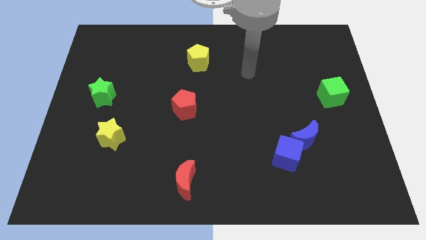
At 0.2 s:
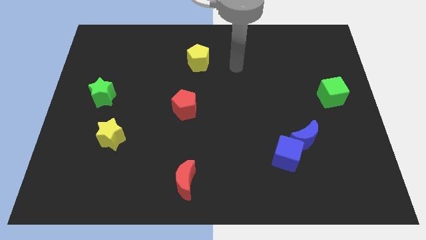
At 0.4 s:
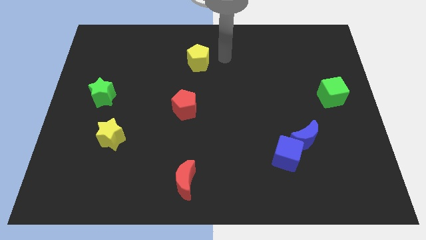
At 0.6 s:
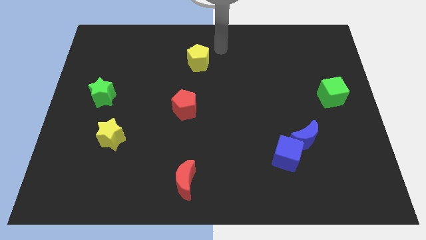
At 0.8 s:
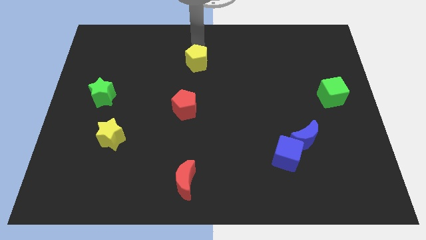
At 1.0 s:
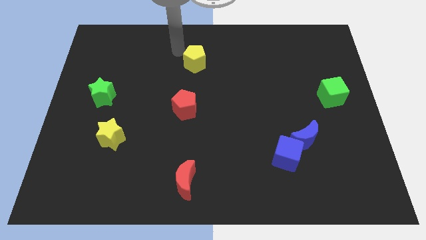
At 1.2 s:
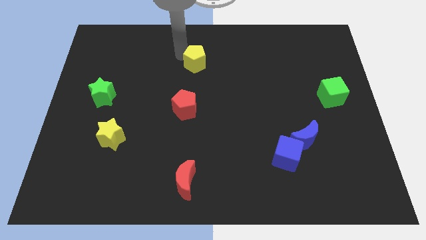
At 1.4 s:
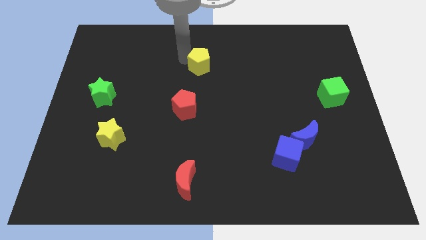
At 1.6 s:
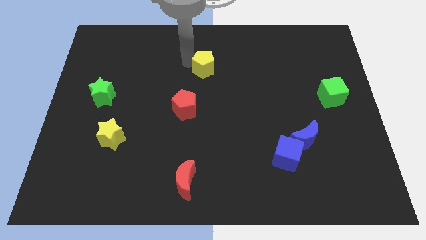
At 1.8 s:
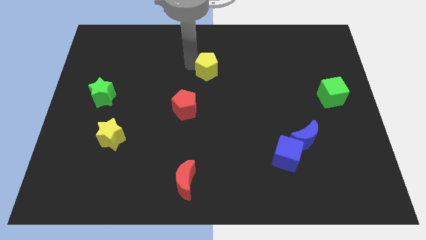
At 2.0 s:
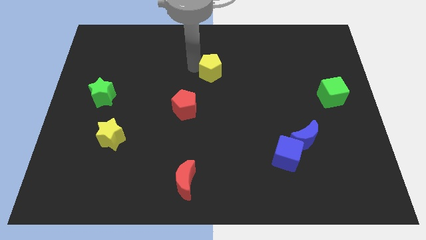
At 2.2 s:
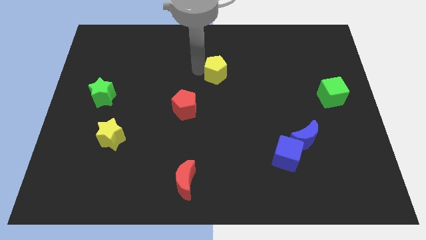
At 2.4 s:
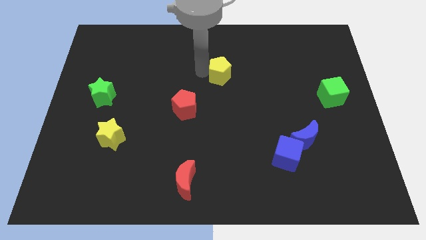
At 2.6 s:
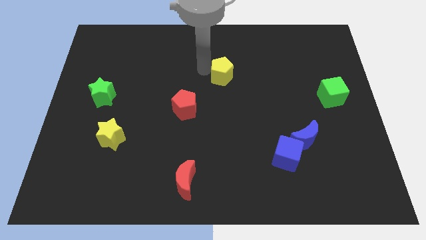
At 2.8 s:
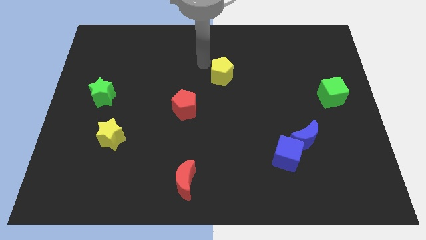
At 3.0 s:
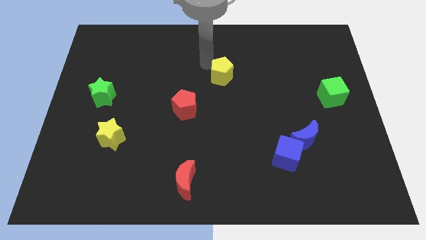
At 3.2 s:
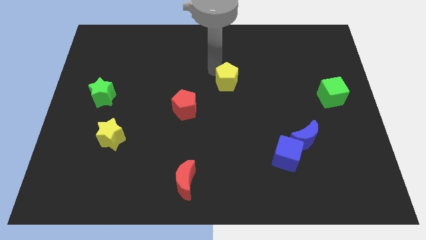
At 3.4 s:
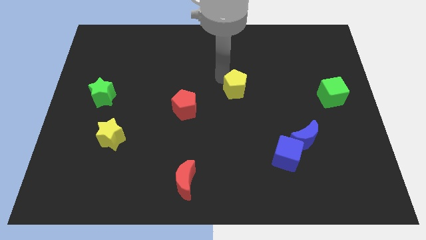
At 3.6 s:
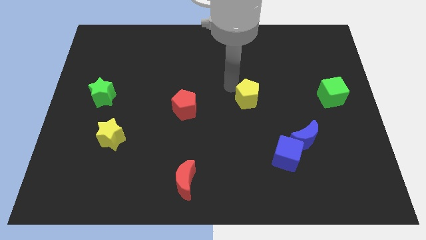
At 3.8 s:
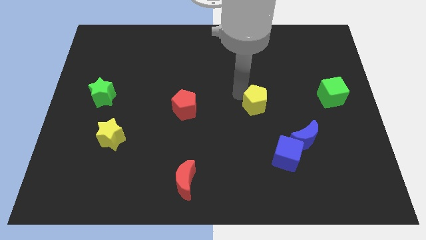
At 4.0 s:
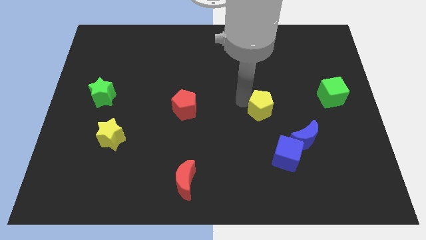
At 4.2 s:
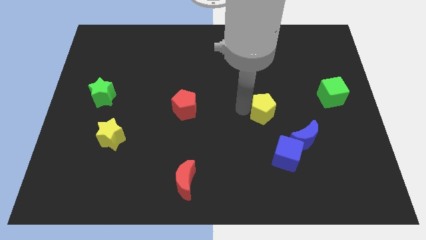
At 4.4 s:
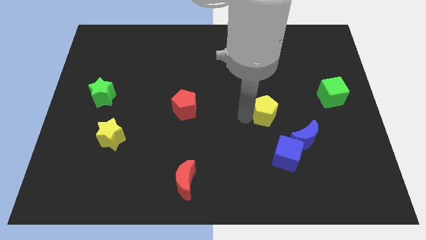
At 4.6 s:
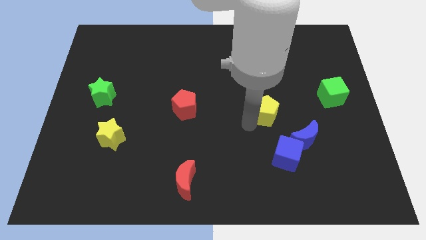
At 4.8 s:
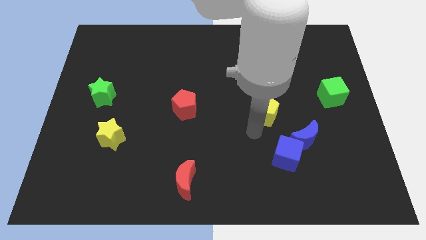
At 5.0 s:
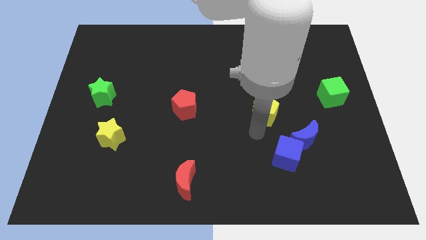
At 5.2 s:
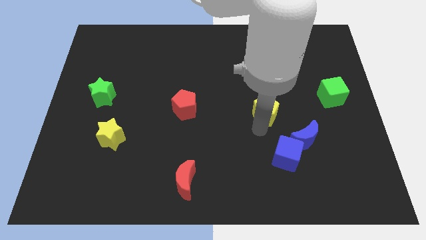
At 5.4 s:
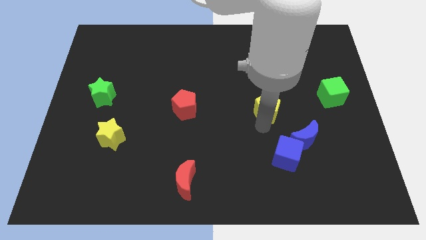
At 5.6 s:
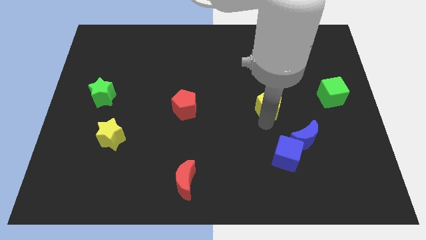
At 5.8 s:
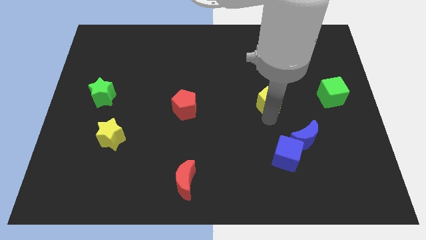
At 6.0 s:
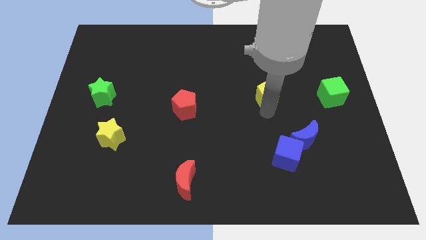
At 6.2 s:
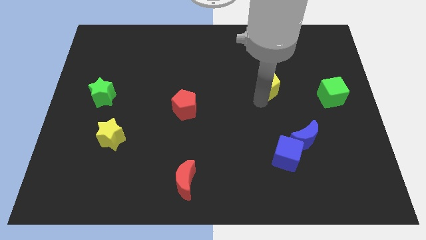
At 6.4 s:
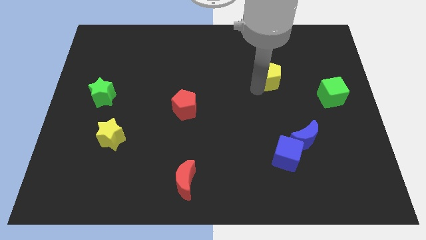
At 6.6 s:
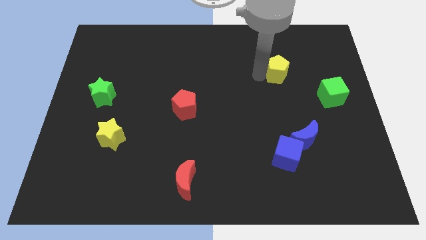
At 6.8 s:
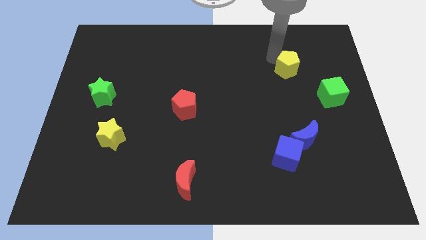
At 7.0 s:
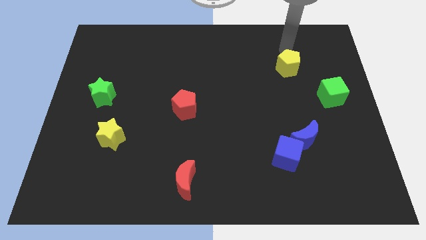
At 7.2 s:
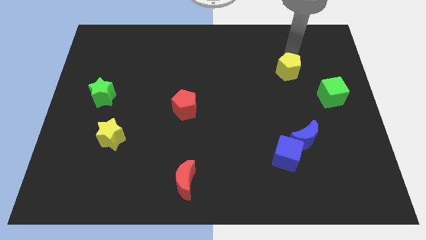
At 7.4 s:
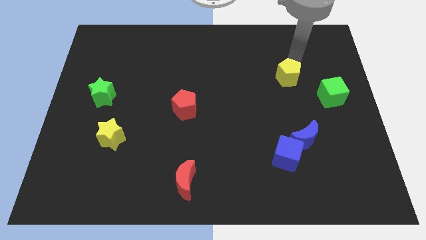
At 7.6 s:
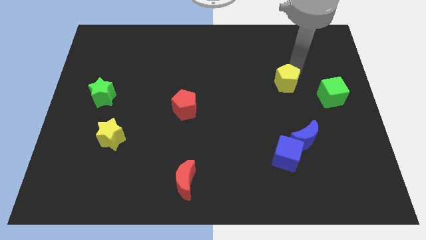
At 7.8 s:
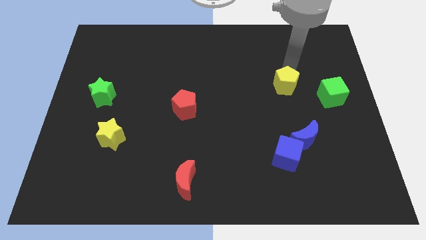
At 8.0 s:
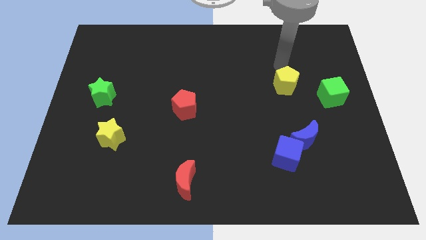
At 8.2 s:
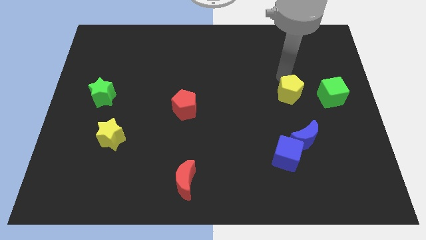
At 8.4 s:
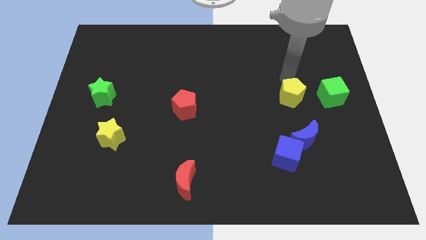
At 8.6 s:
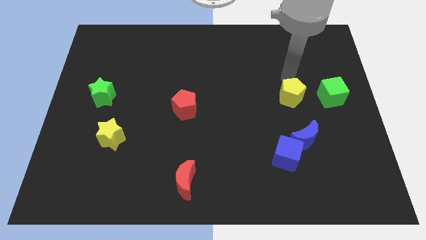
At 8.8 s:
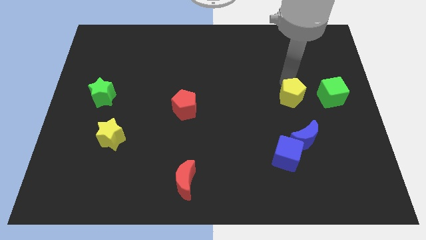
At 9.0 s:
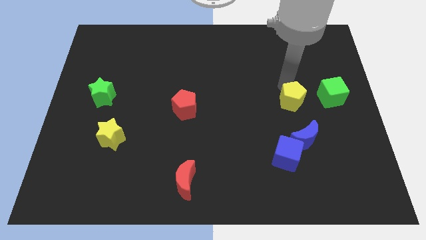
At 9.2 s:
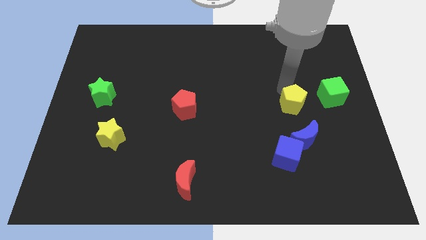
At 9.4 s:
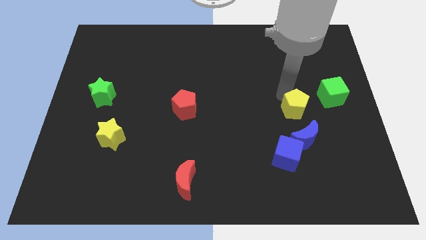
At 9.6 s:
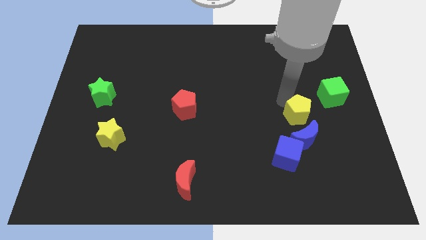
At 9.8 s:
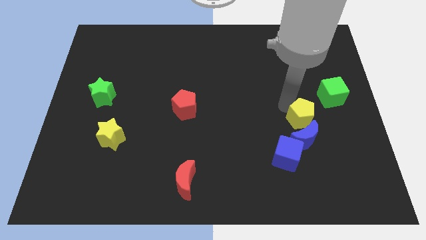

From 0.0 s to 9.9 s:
slide the yellow pentagon to the top right side of the blue cube

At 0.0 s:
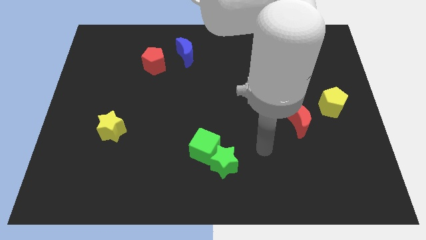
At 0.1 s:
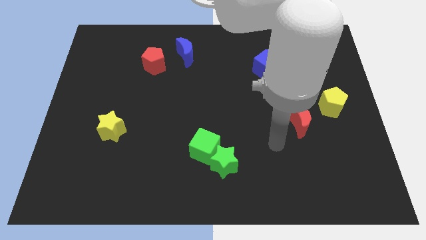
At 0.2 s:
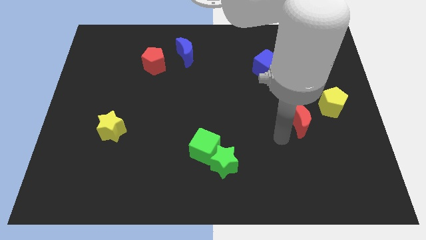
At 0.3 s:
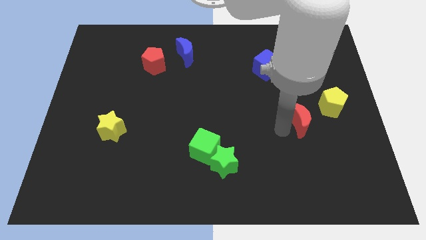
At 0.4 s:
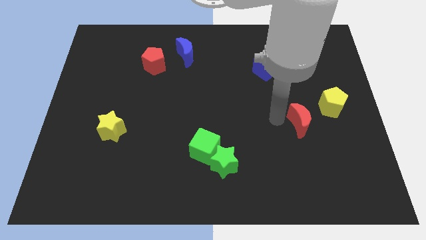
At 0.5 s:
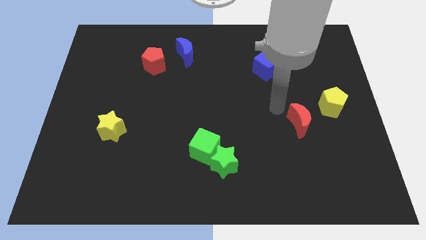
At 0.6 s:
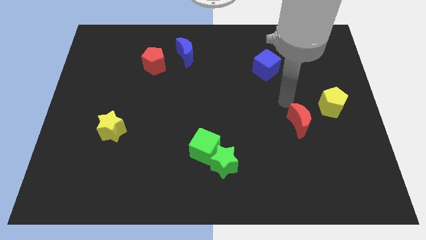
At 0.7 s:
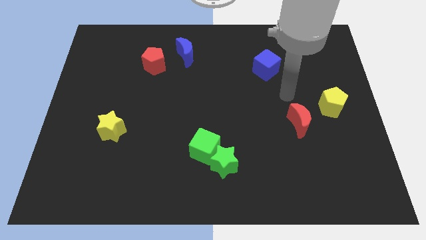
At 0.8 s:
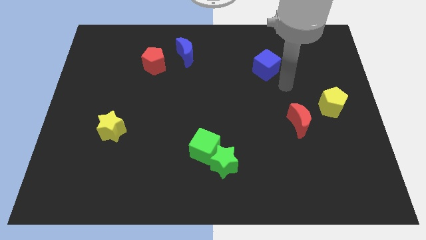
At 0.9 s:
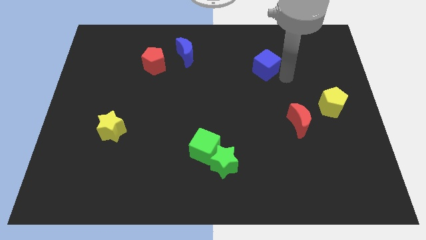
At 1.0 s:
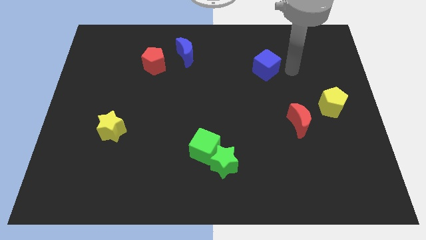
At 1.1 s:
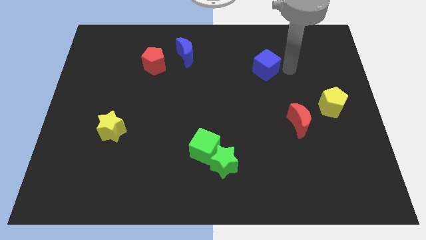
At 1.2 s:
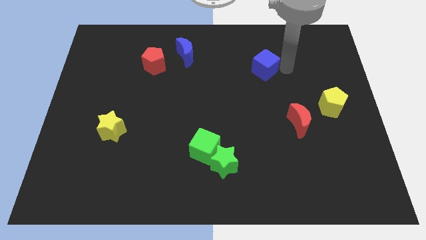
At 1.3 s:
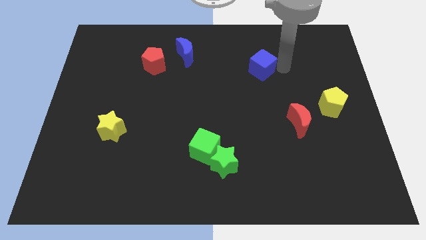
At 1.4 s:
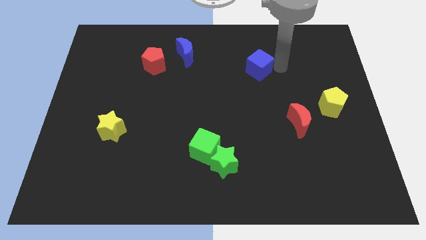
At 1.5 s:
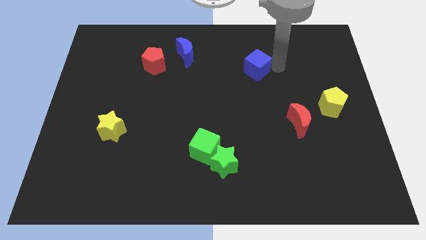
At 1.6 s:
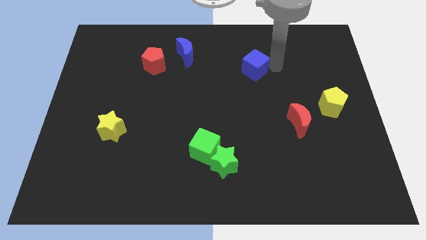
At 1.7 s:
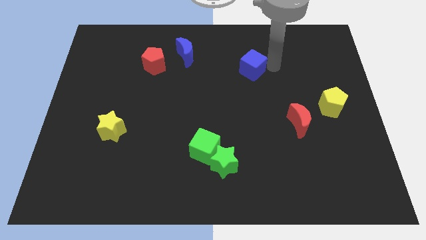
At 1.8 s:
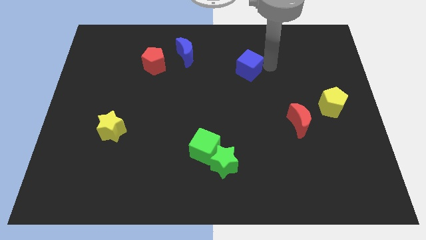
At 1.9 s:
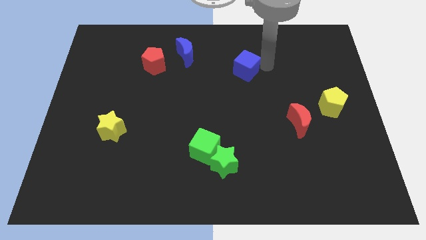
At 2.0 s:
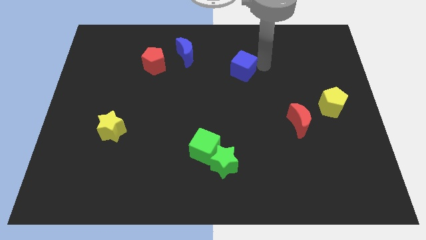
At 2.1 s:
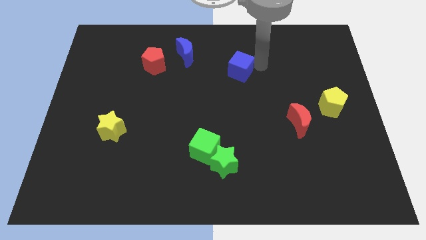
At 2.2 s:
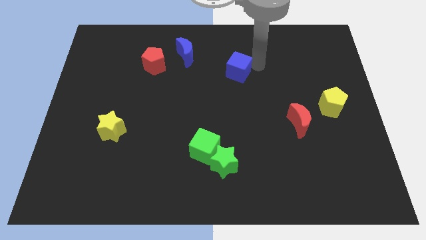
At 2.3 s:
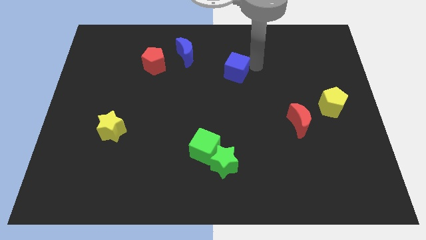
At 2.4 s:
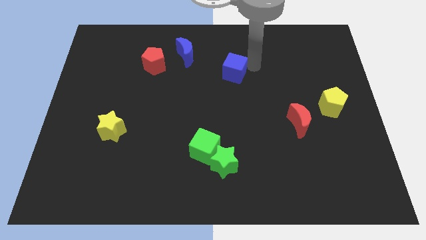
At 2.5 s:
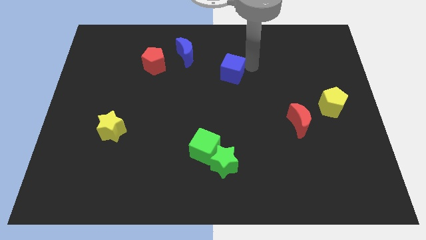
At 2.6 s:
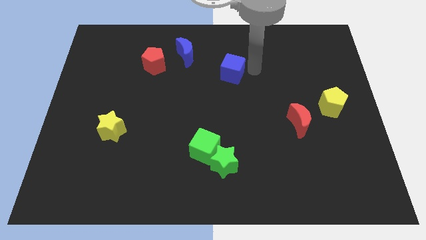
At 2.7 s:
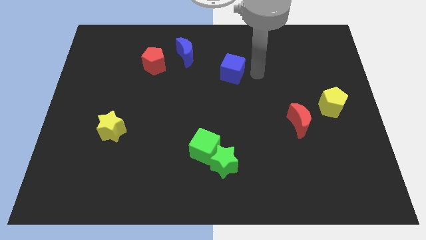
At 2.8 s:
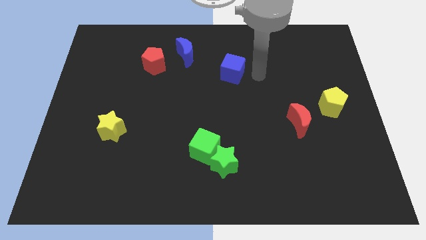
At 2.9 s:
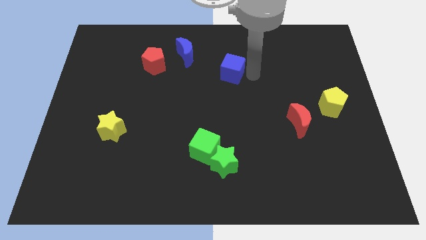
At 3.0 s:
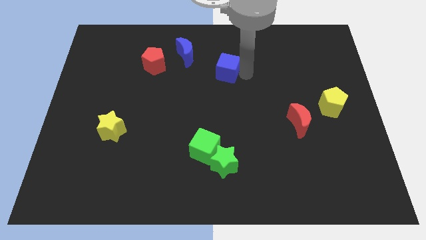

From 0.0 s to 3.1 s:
move the blue cube diagonally down and to the right of the blue moon
